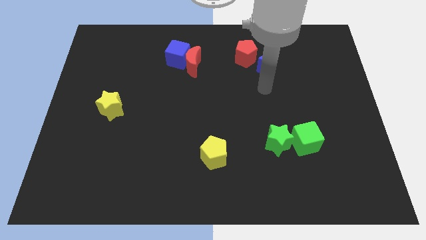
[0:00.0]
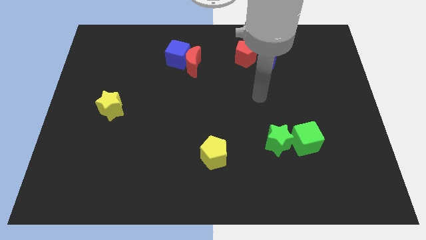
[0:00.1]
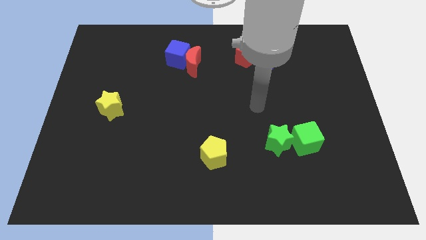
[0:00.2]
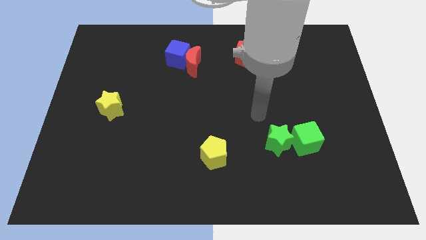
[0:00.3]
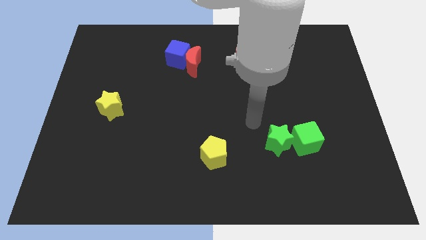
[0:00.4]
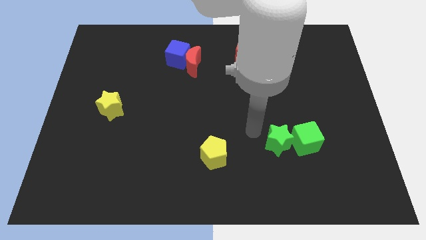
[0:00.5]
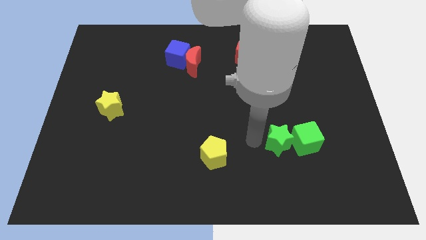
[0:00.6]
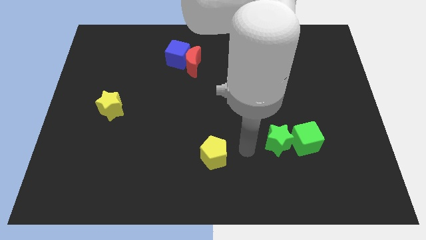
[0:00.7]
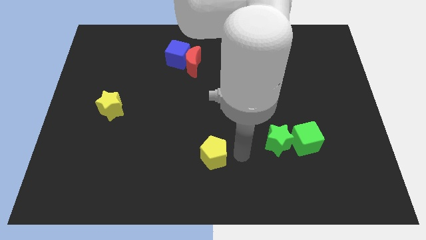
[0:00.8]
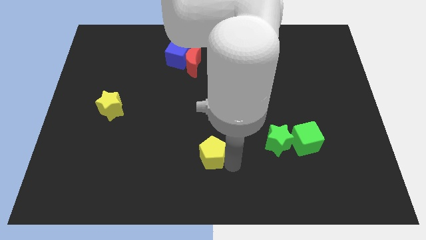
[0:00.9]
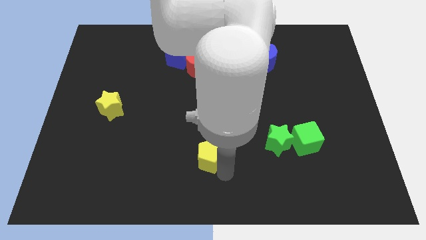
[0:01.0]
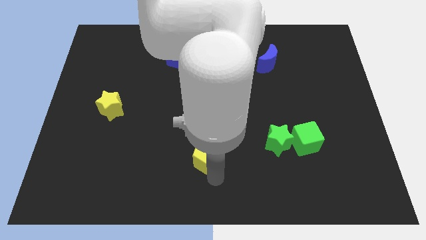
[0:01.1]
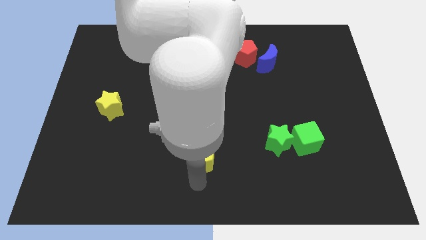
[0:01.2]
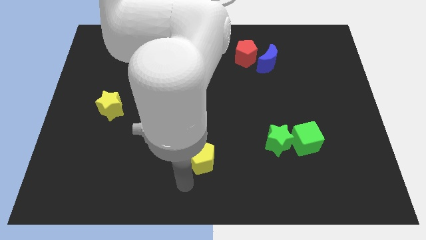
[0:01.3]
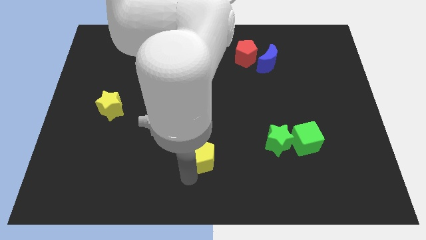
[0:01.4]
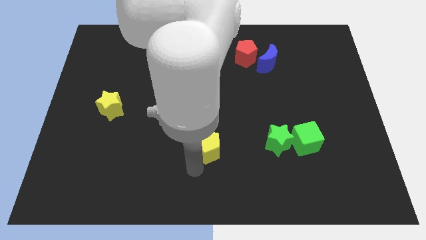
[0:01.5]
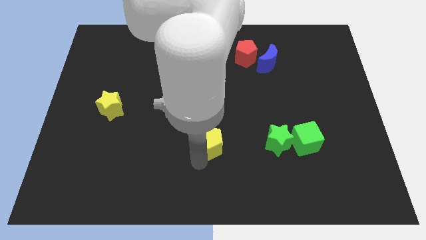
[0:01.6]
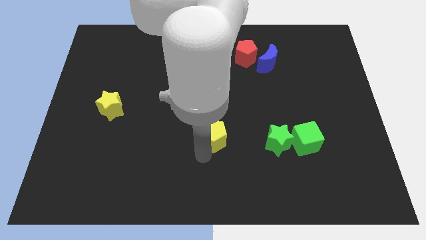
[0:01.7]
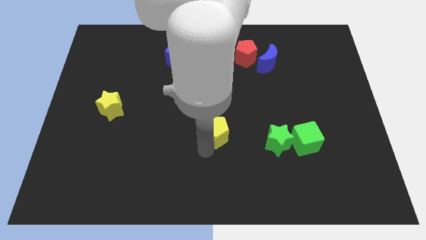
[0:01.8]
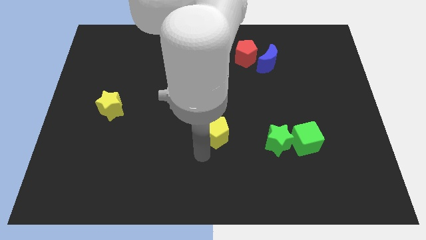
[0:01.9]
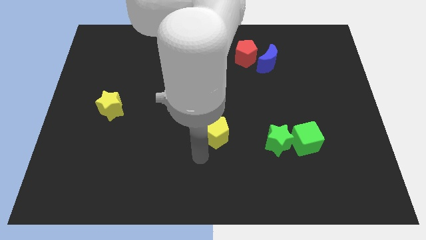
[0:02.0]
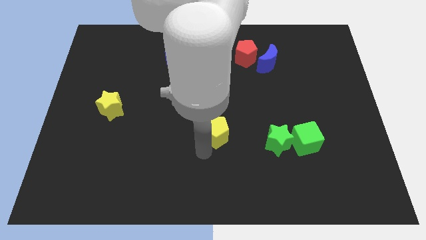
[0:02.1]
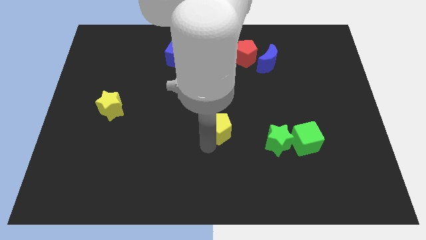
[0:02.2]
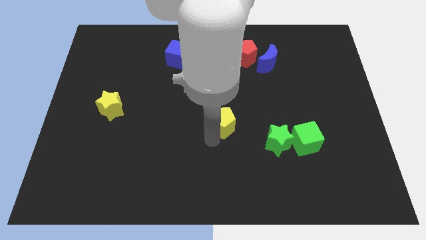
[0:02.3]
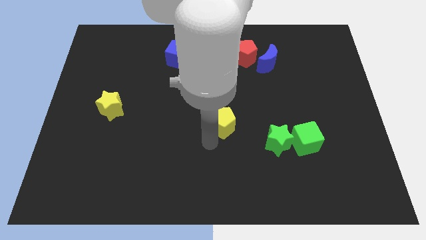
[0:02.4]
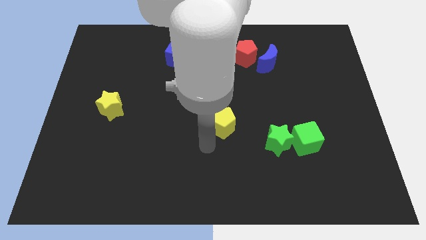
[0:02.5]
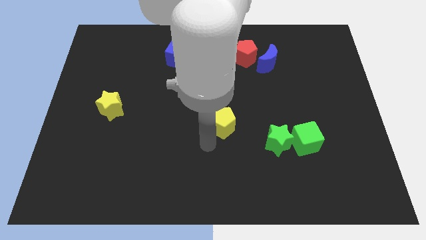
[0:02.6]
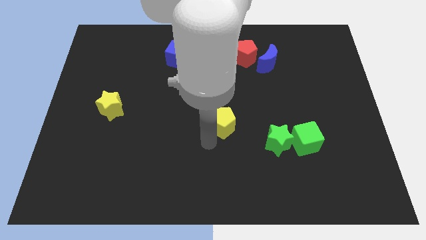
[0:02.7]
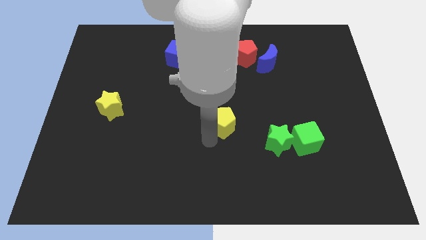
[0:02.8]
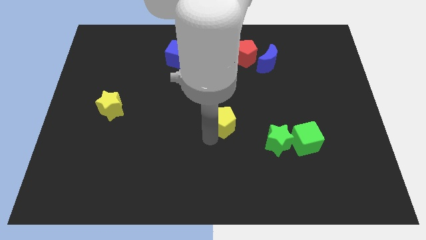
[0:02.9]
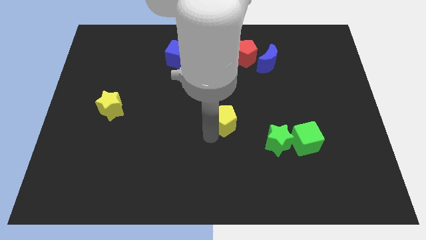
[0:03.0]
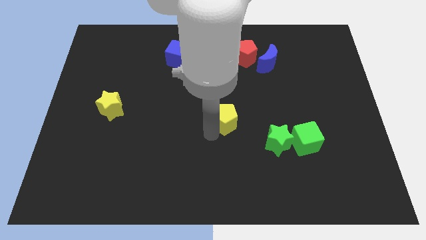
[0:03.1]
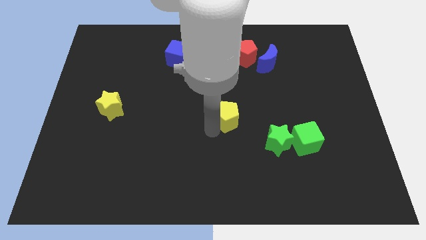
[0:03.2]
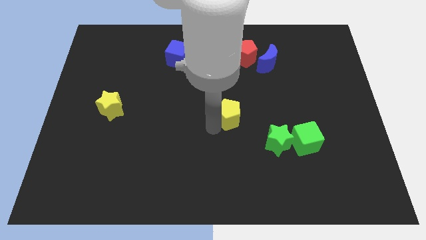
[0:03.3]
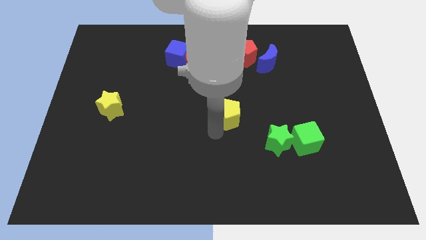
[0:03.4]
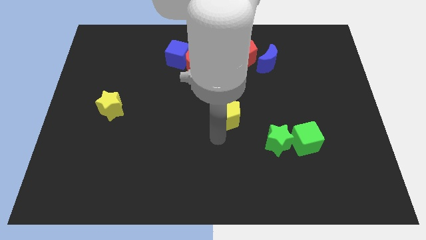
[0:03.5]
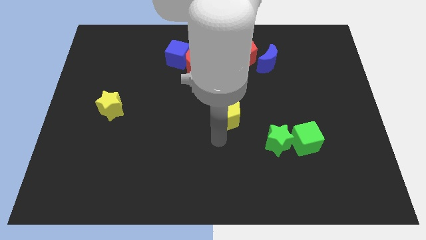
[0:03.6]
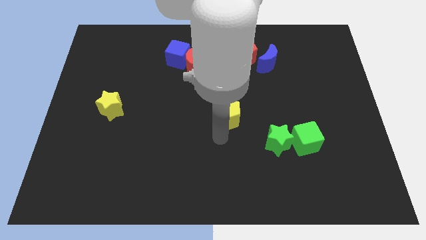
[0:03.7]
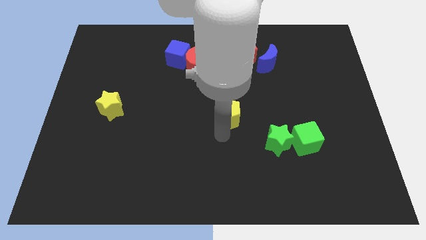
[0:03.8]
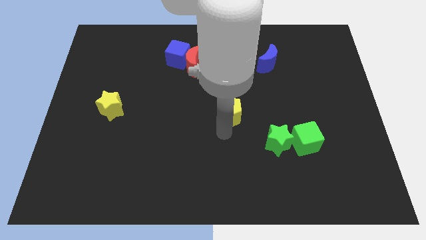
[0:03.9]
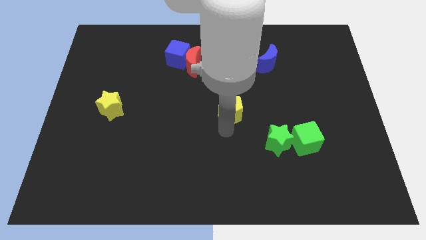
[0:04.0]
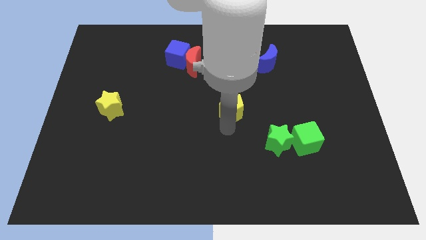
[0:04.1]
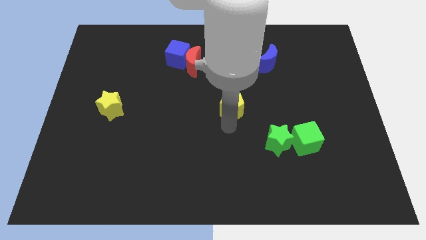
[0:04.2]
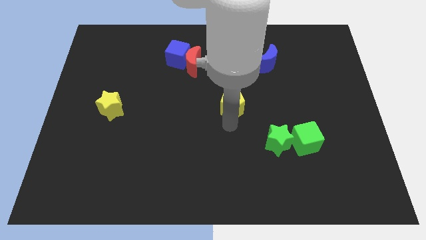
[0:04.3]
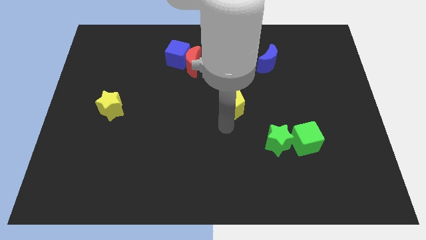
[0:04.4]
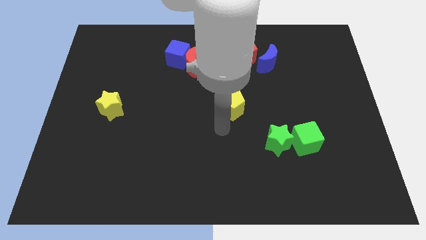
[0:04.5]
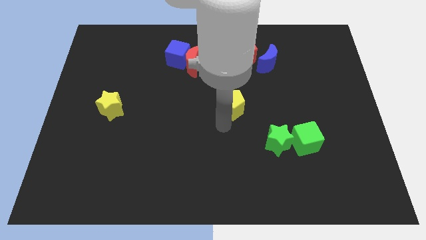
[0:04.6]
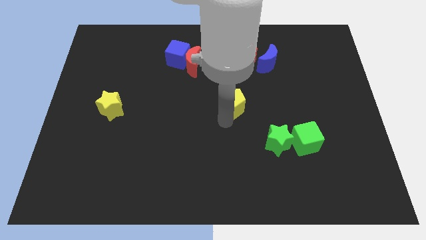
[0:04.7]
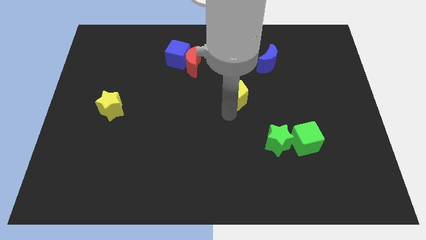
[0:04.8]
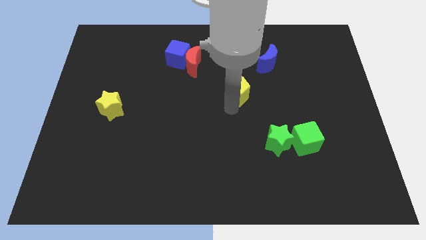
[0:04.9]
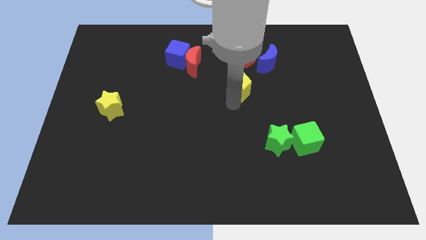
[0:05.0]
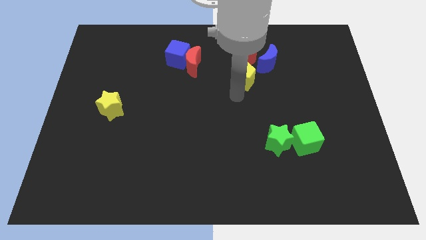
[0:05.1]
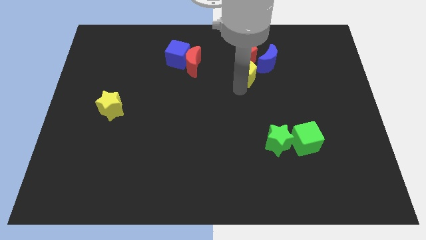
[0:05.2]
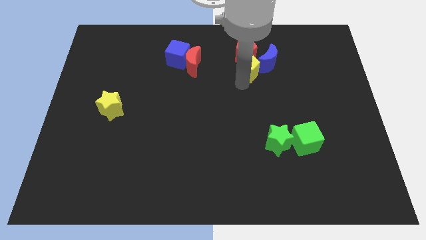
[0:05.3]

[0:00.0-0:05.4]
move the yellow pentagon close to the red pentagon

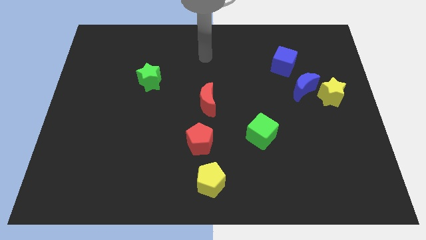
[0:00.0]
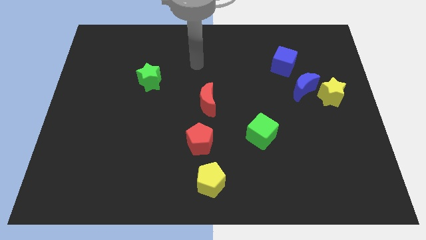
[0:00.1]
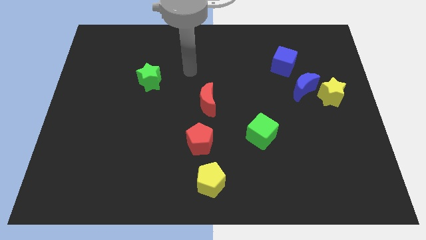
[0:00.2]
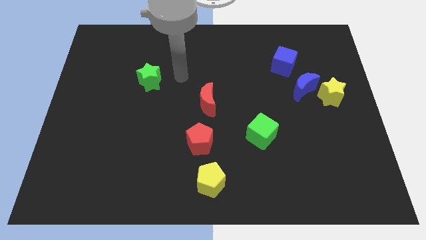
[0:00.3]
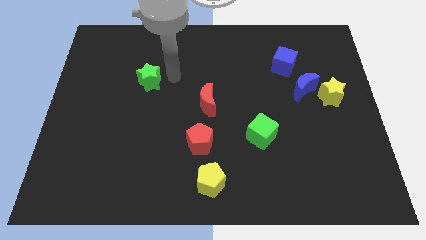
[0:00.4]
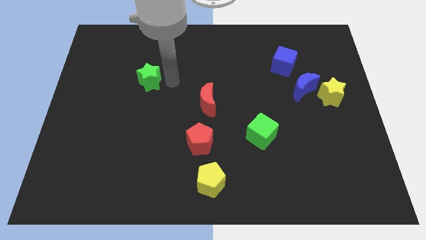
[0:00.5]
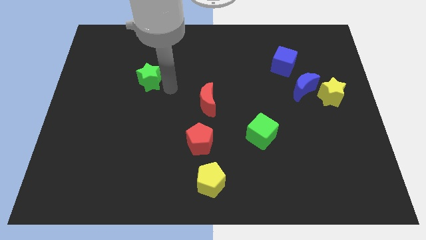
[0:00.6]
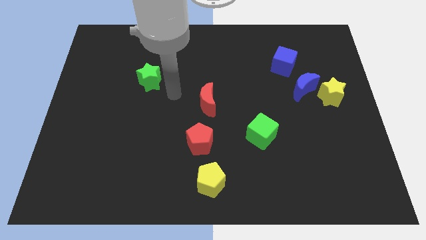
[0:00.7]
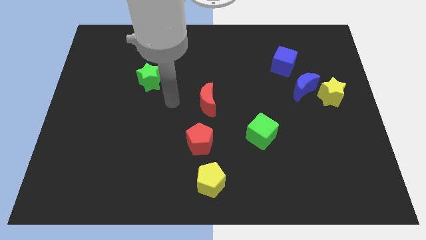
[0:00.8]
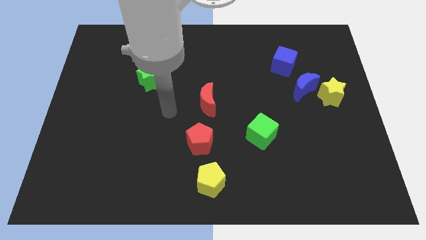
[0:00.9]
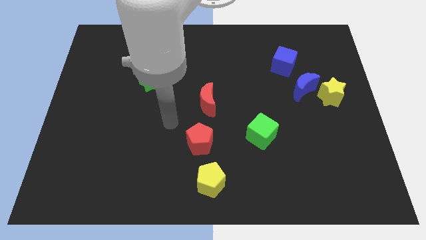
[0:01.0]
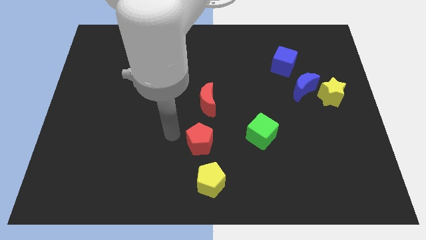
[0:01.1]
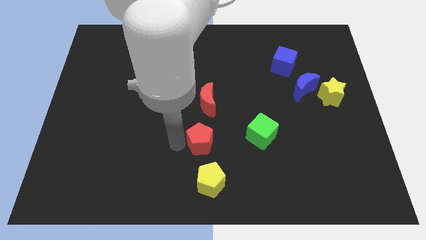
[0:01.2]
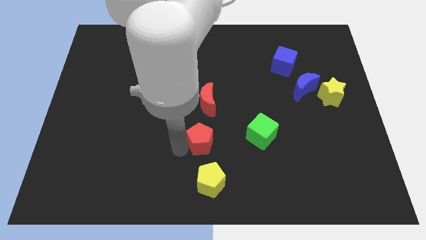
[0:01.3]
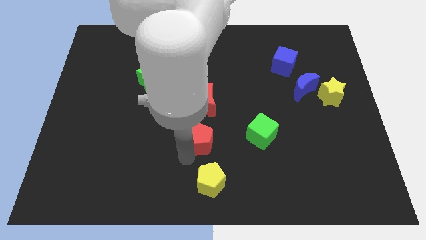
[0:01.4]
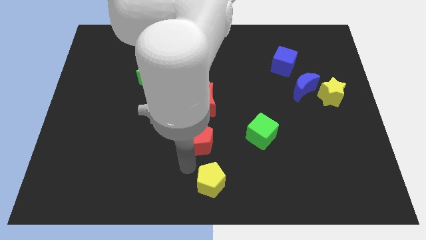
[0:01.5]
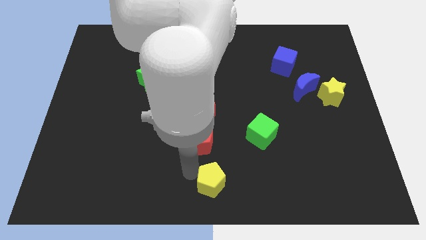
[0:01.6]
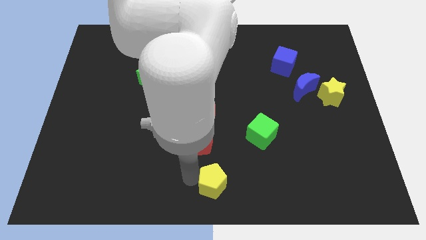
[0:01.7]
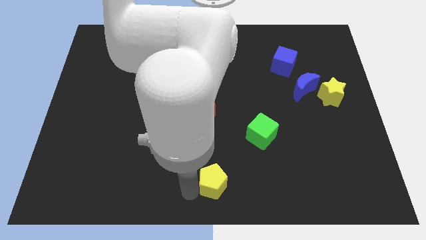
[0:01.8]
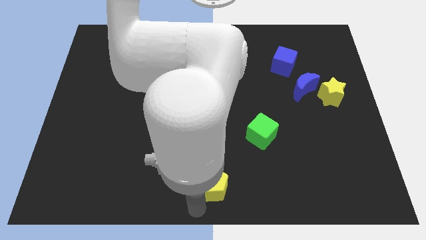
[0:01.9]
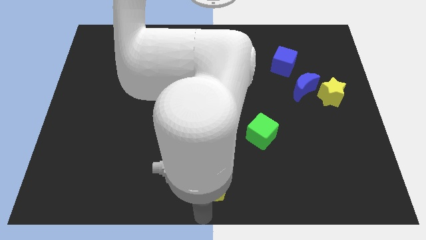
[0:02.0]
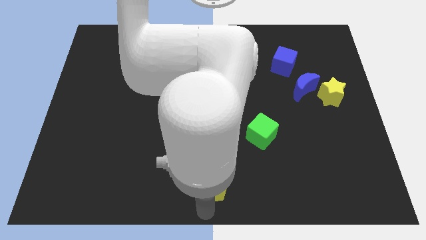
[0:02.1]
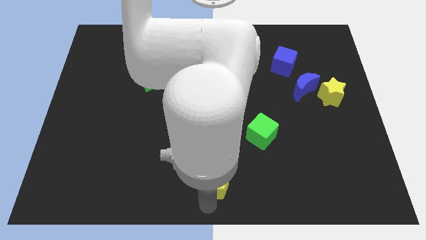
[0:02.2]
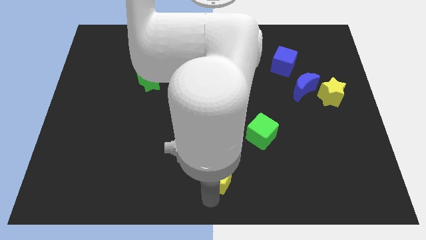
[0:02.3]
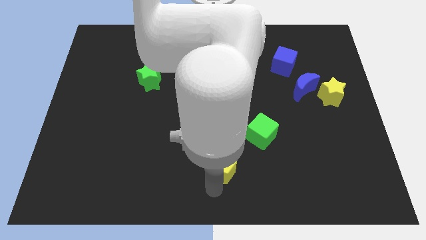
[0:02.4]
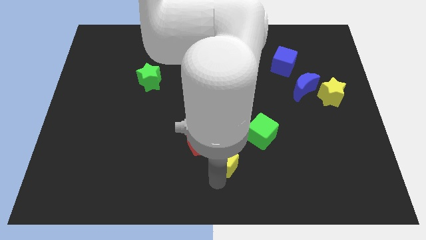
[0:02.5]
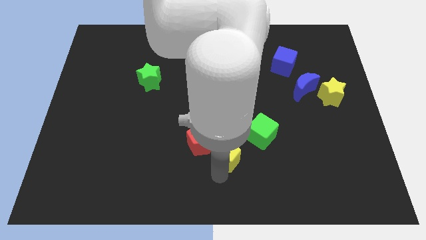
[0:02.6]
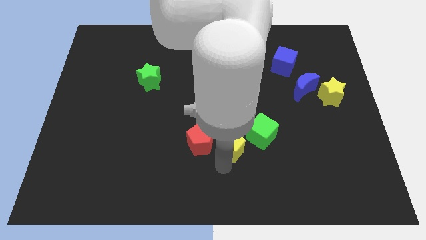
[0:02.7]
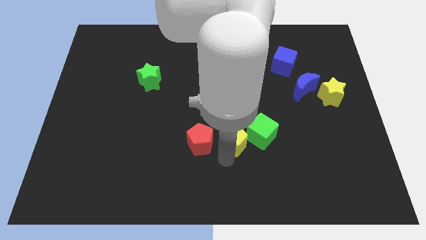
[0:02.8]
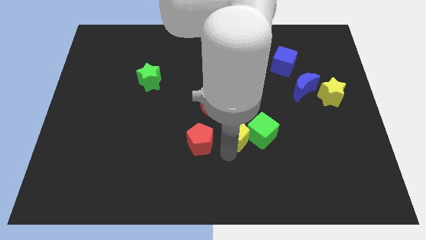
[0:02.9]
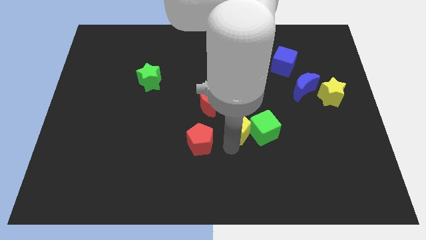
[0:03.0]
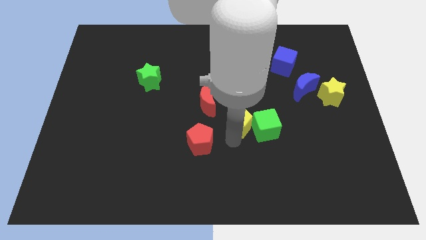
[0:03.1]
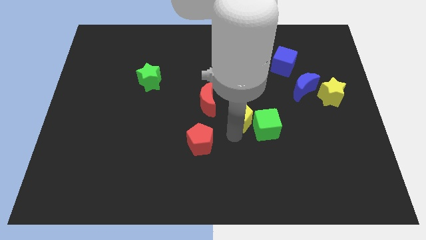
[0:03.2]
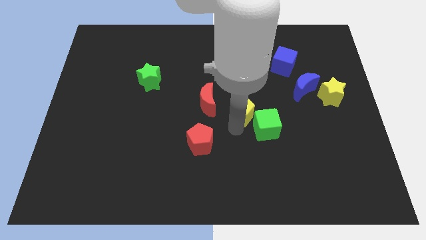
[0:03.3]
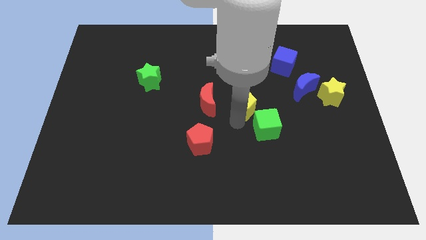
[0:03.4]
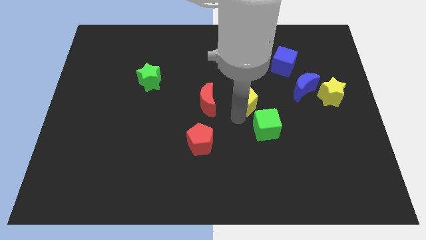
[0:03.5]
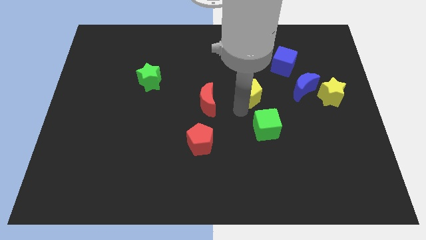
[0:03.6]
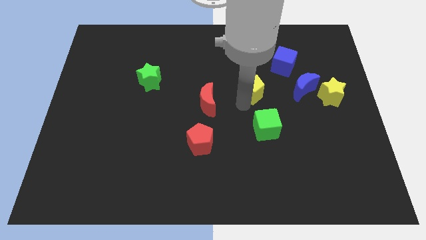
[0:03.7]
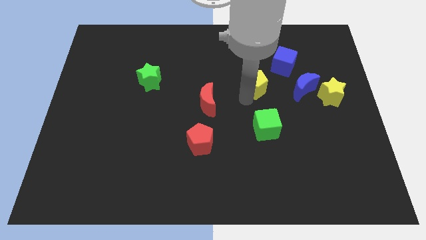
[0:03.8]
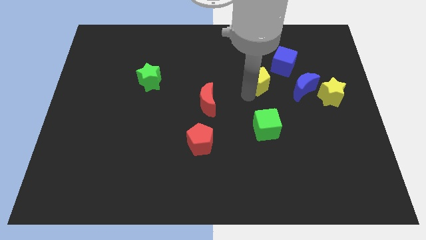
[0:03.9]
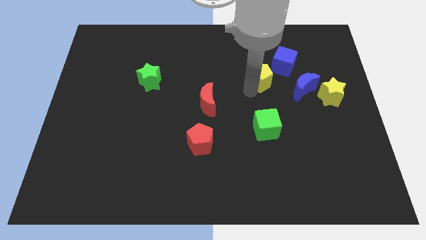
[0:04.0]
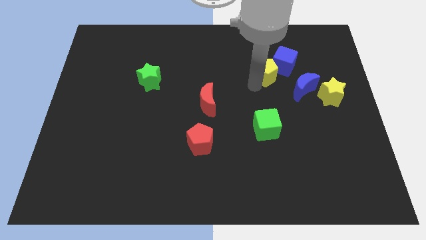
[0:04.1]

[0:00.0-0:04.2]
slide the yellow pentagon next to the blue cube
